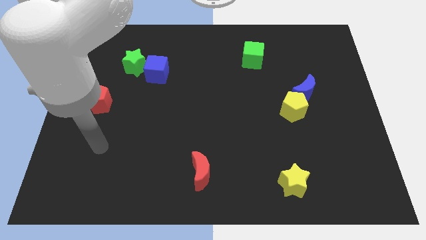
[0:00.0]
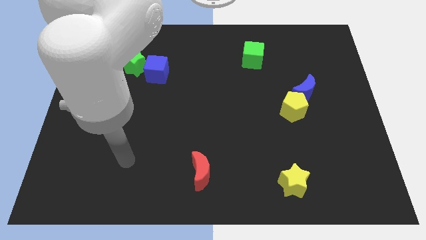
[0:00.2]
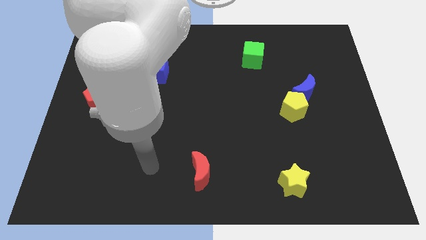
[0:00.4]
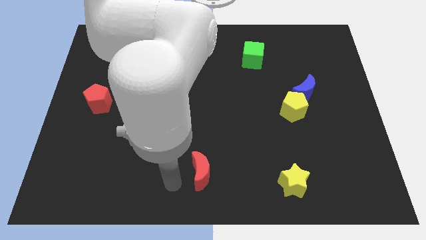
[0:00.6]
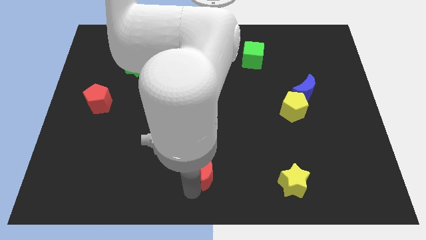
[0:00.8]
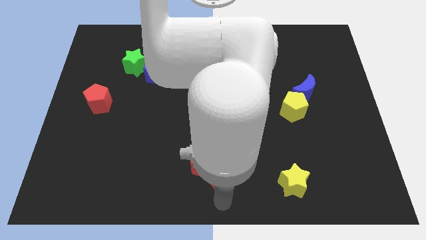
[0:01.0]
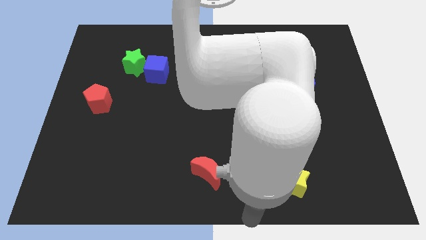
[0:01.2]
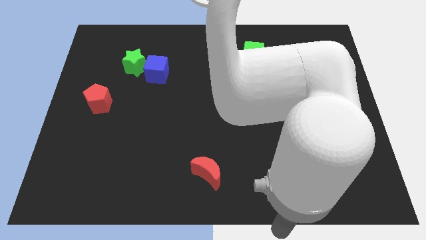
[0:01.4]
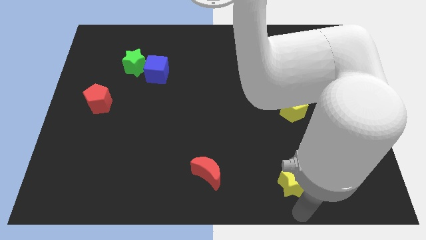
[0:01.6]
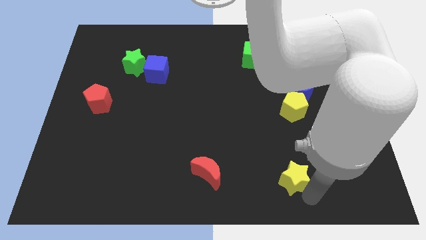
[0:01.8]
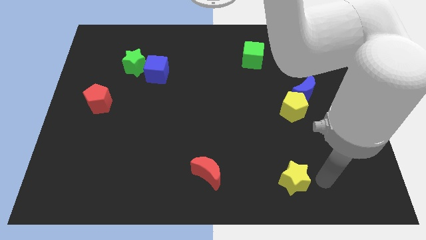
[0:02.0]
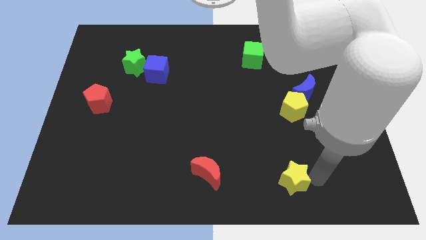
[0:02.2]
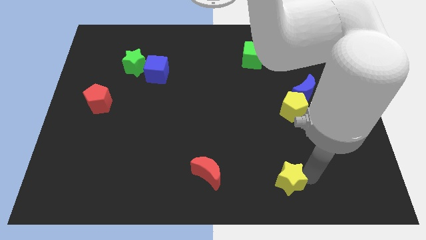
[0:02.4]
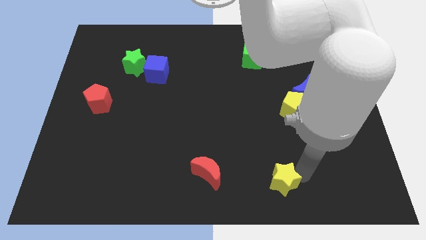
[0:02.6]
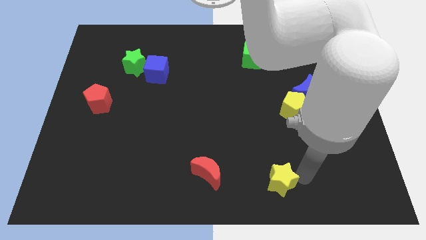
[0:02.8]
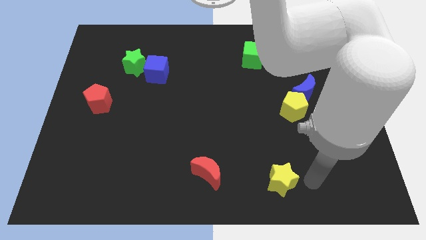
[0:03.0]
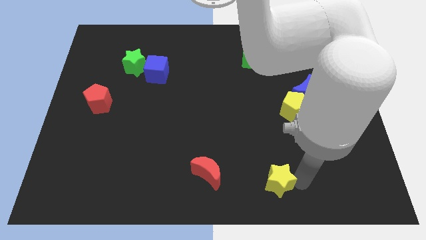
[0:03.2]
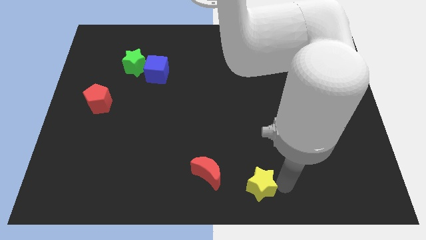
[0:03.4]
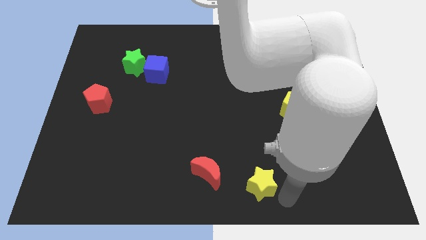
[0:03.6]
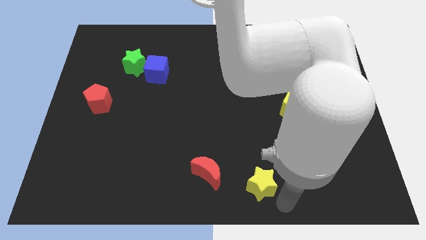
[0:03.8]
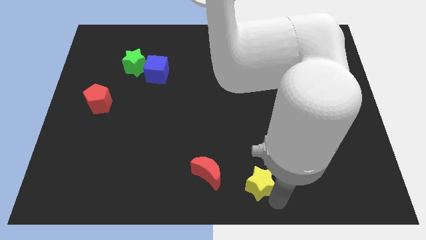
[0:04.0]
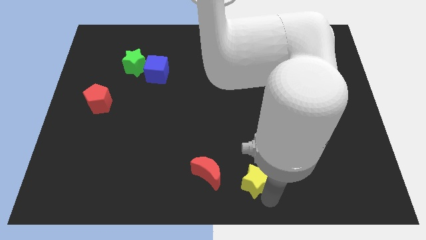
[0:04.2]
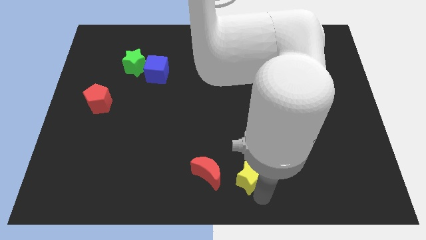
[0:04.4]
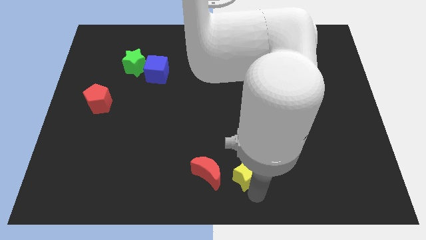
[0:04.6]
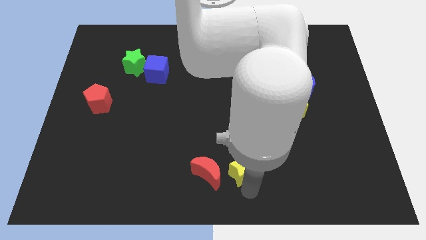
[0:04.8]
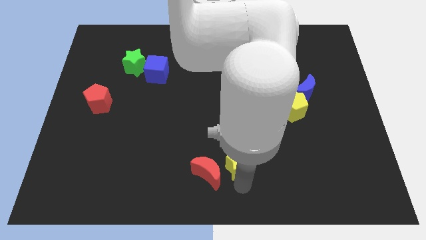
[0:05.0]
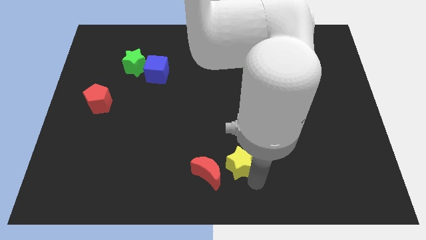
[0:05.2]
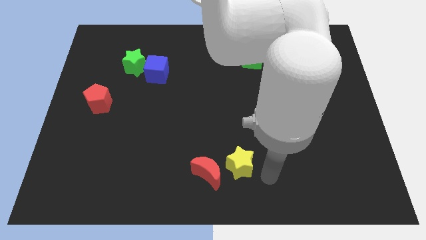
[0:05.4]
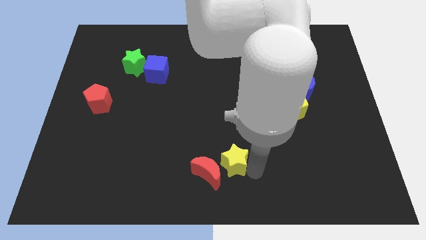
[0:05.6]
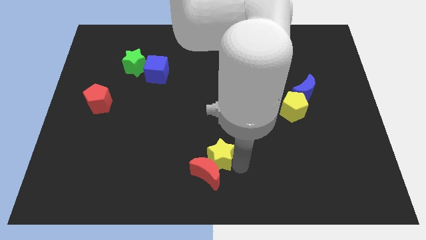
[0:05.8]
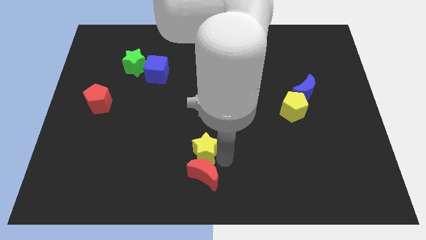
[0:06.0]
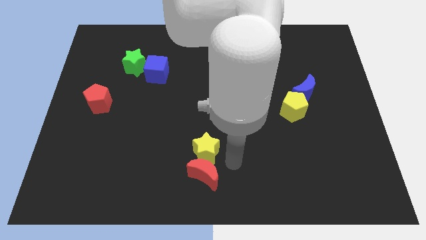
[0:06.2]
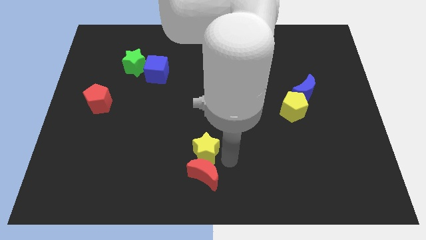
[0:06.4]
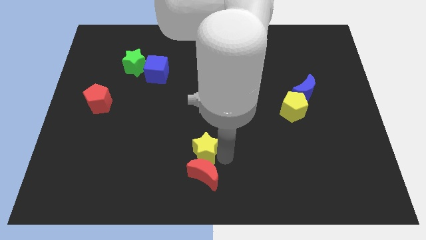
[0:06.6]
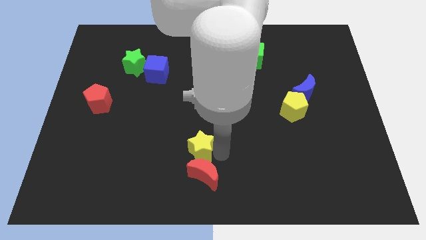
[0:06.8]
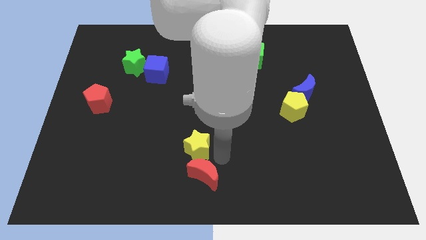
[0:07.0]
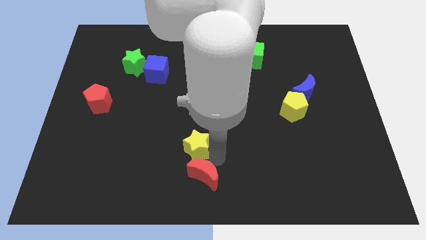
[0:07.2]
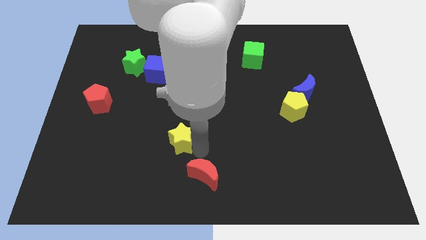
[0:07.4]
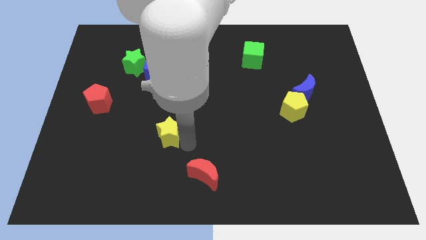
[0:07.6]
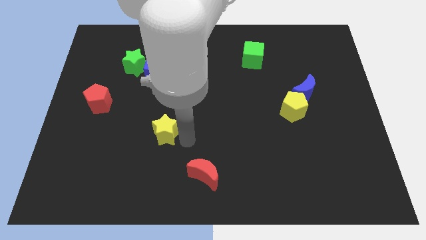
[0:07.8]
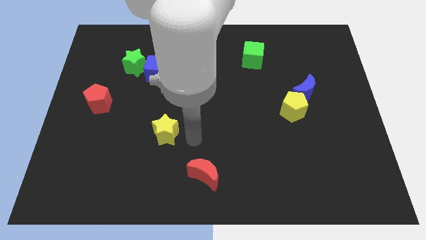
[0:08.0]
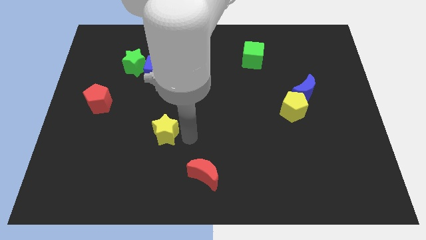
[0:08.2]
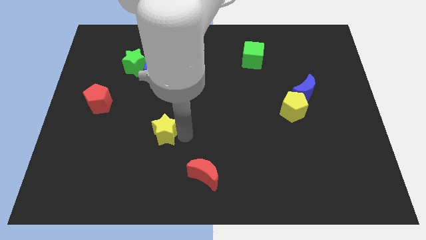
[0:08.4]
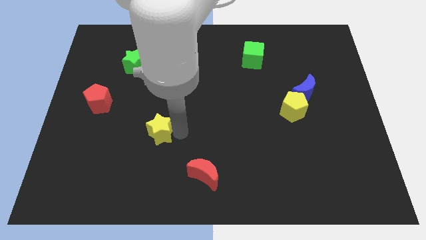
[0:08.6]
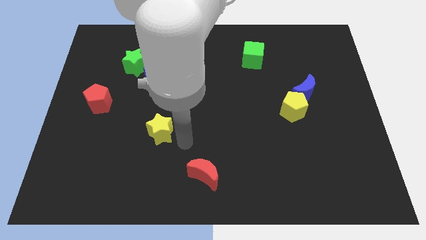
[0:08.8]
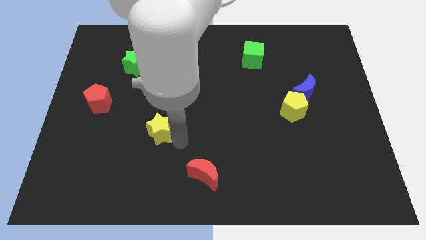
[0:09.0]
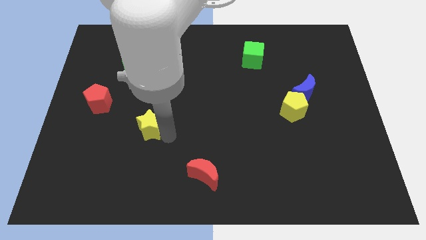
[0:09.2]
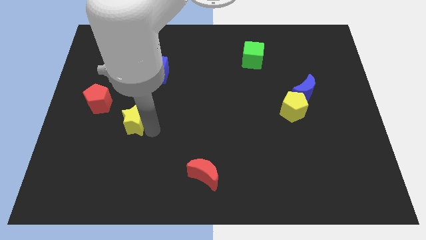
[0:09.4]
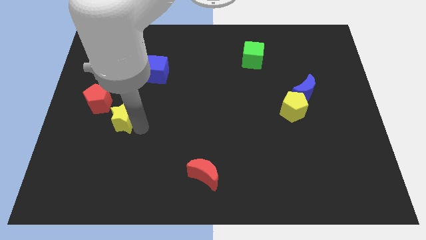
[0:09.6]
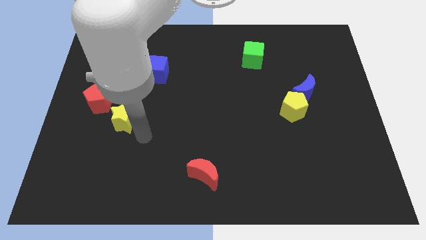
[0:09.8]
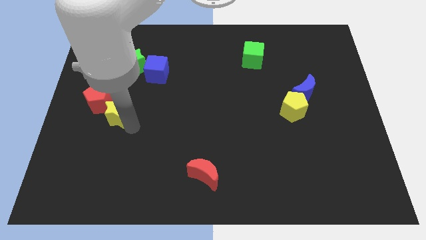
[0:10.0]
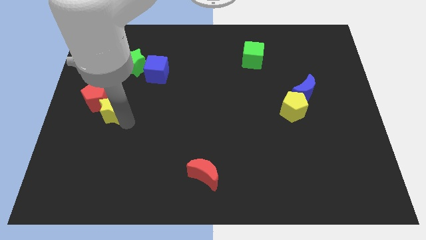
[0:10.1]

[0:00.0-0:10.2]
slide the yellow star close to the red pentagon
